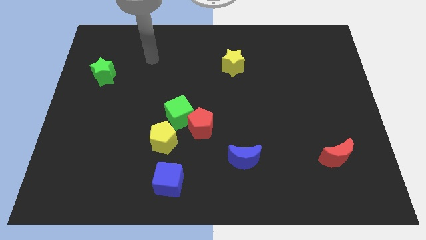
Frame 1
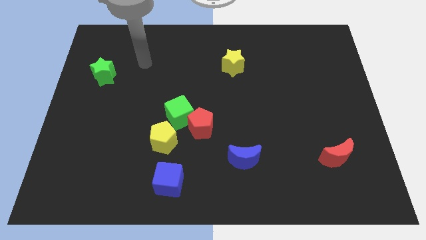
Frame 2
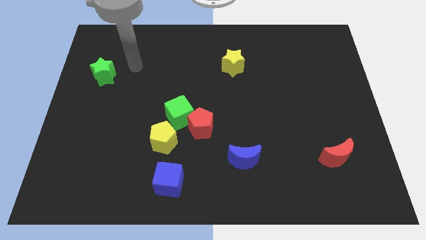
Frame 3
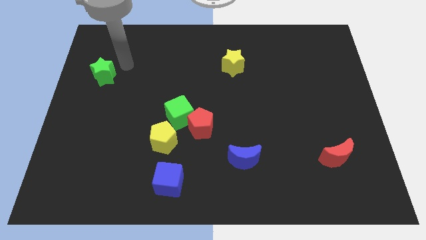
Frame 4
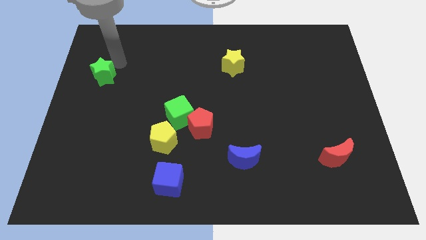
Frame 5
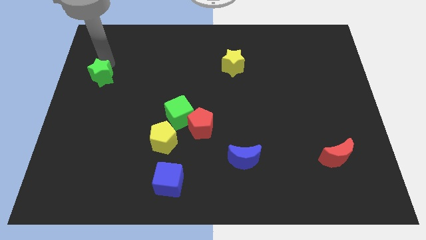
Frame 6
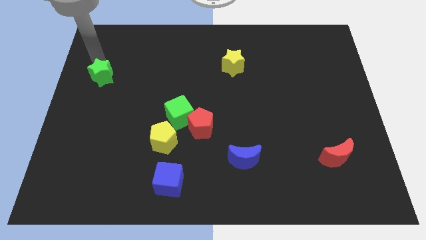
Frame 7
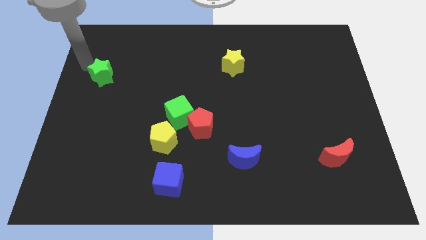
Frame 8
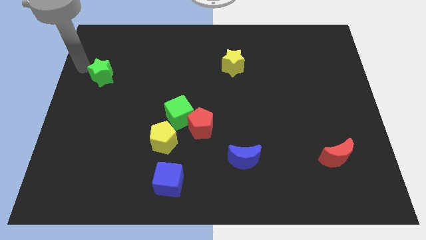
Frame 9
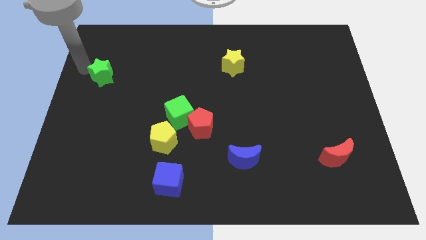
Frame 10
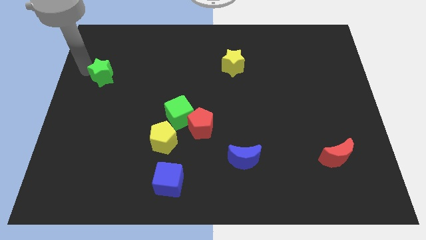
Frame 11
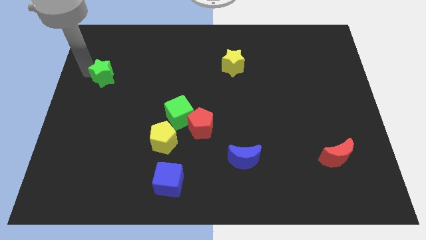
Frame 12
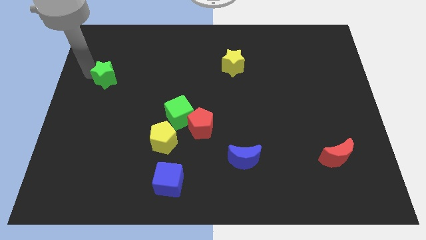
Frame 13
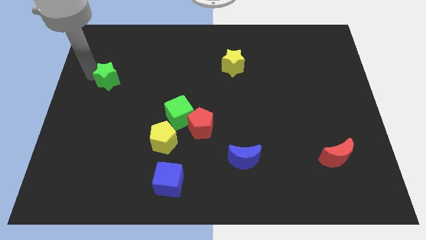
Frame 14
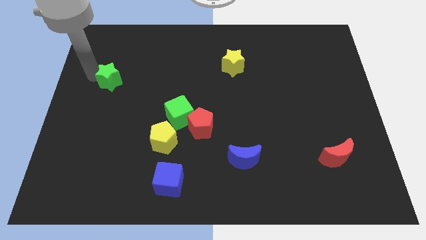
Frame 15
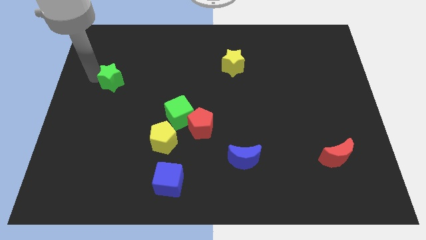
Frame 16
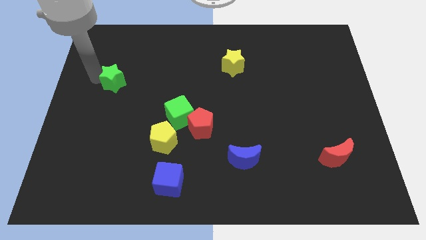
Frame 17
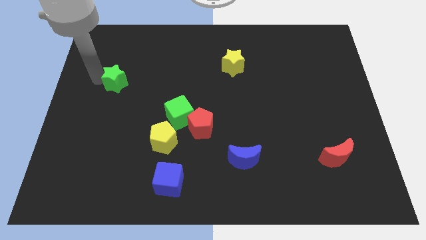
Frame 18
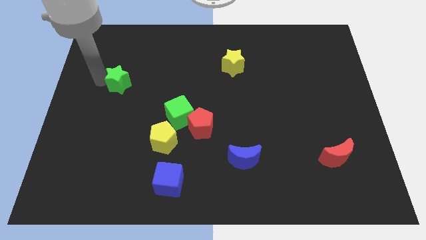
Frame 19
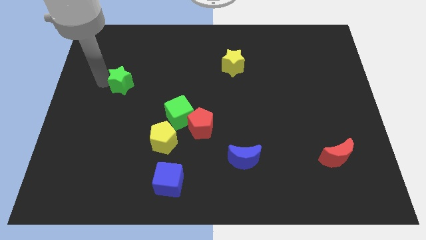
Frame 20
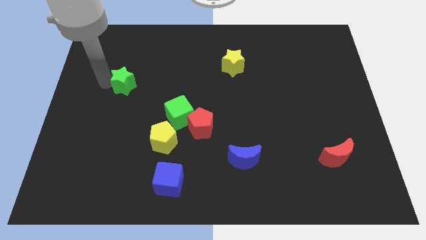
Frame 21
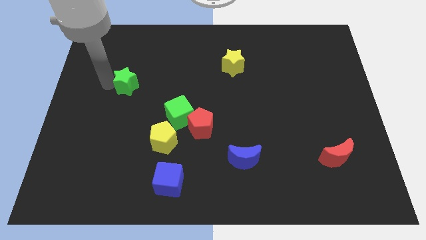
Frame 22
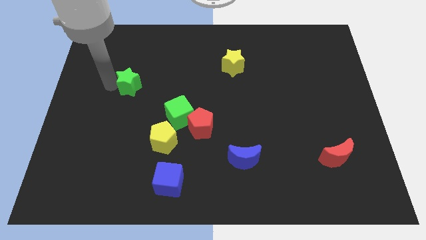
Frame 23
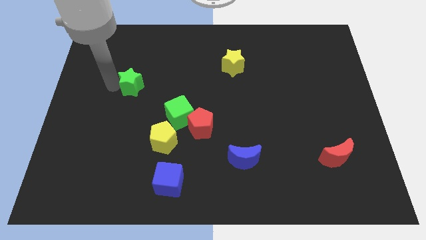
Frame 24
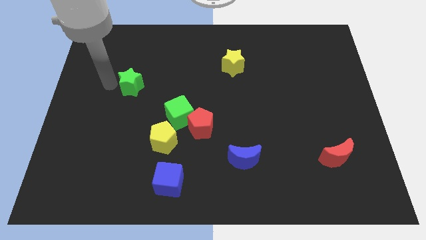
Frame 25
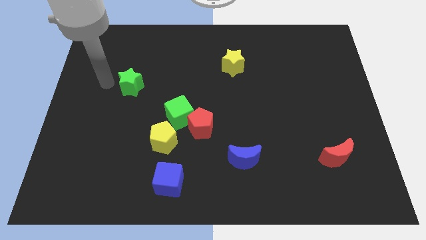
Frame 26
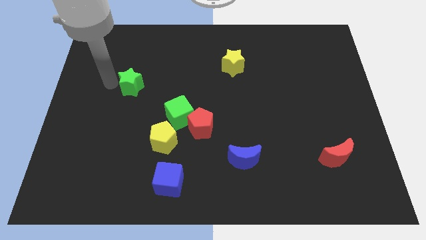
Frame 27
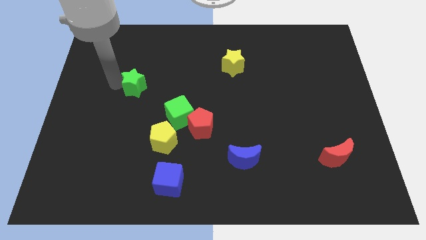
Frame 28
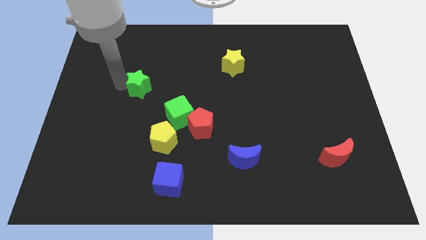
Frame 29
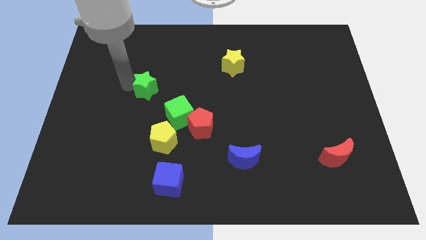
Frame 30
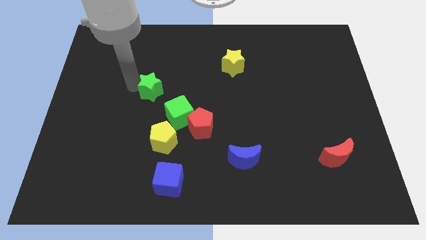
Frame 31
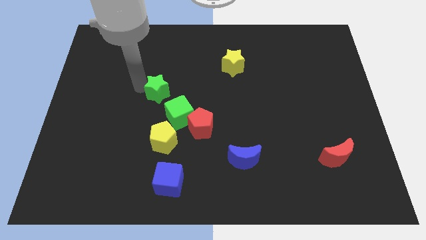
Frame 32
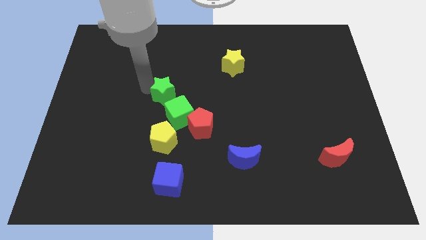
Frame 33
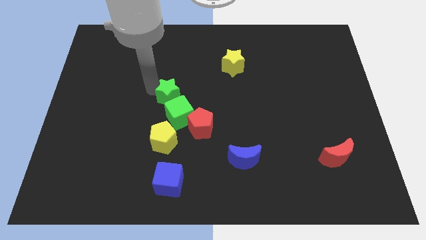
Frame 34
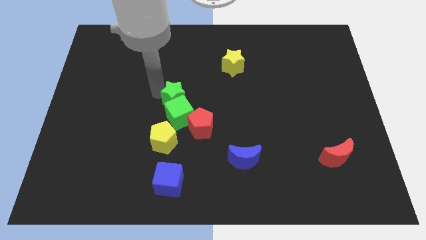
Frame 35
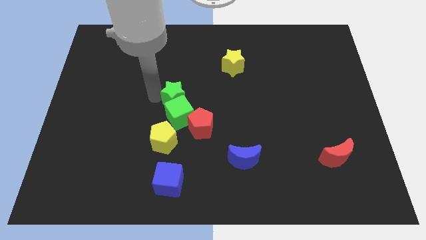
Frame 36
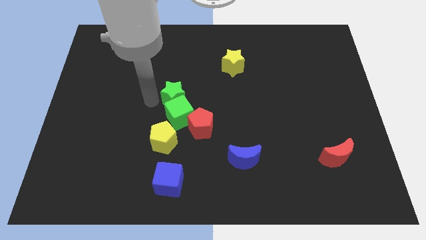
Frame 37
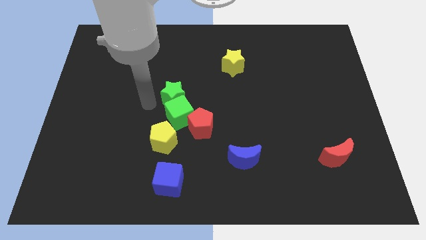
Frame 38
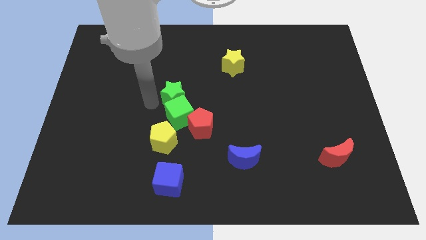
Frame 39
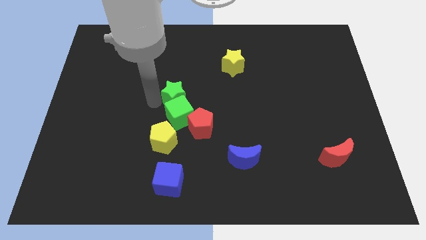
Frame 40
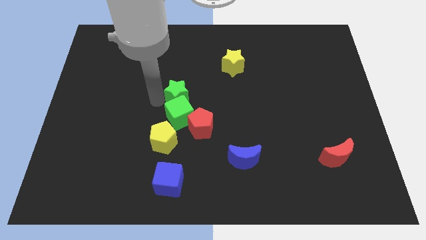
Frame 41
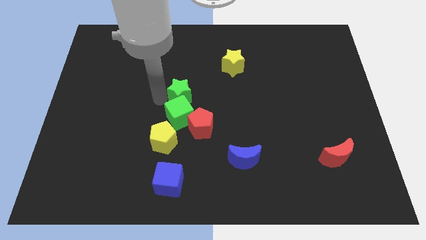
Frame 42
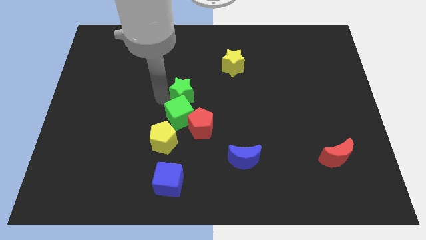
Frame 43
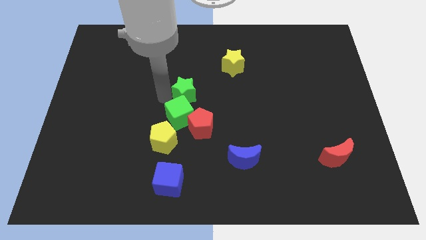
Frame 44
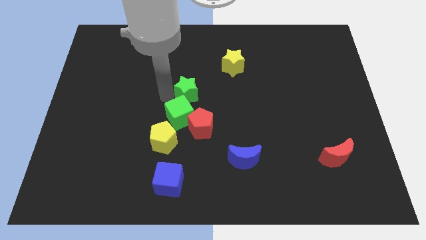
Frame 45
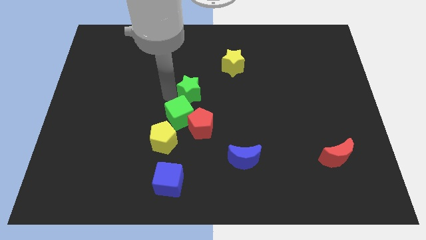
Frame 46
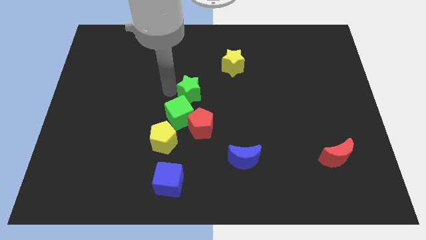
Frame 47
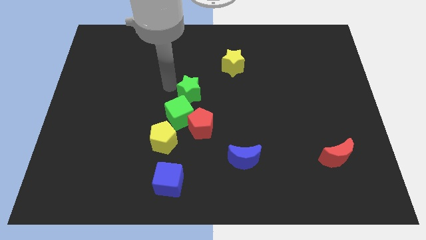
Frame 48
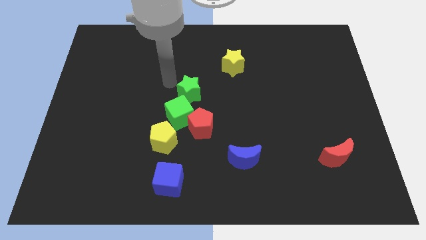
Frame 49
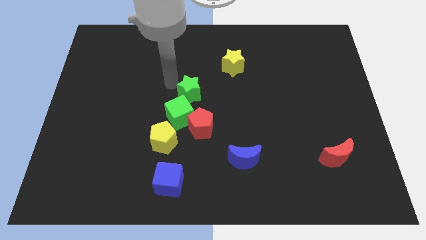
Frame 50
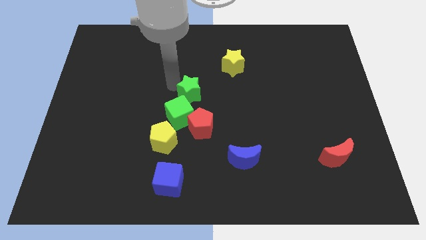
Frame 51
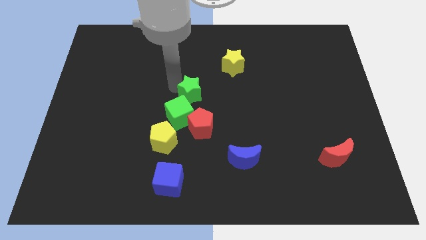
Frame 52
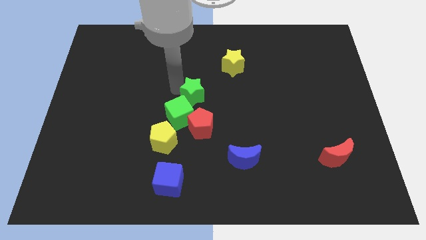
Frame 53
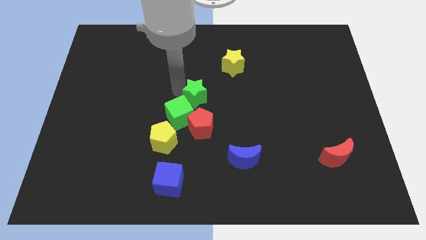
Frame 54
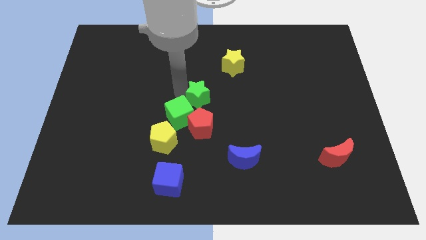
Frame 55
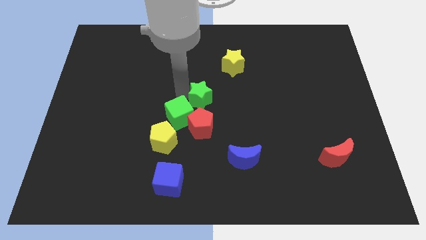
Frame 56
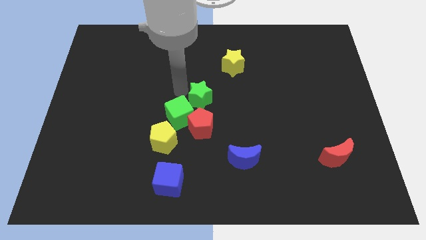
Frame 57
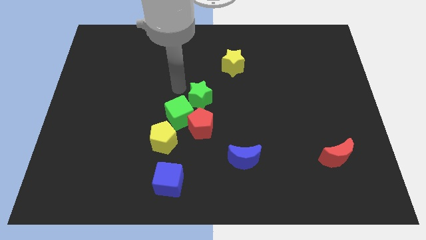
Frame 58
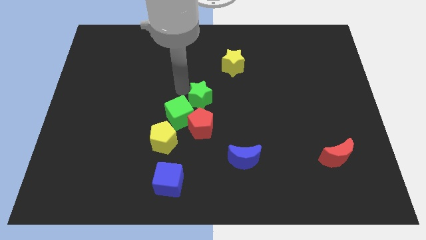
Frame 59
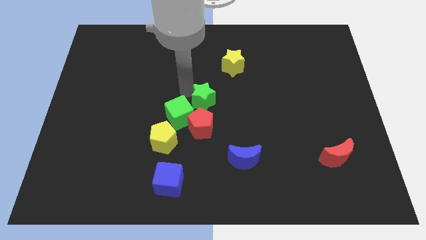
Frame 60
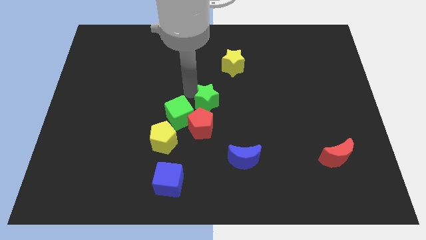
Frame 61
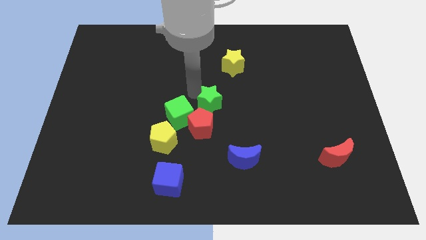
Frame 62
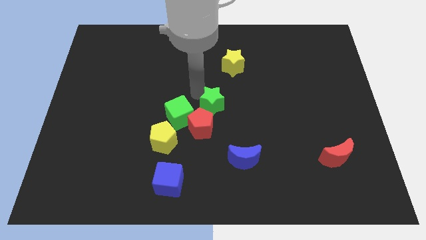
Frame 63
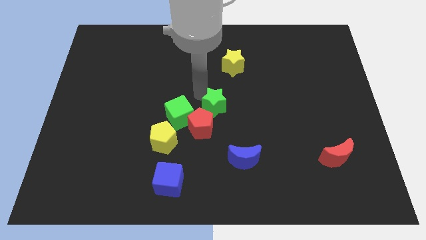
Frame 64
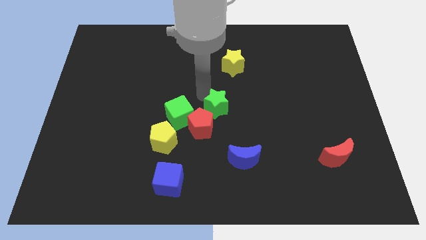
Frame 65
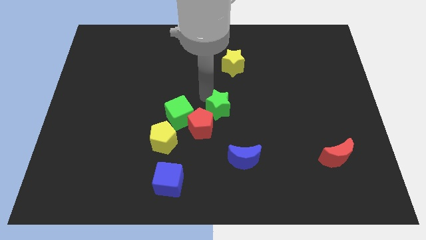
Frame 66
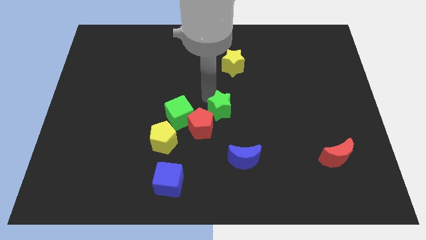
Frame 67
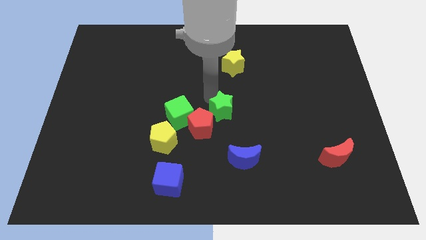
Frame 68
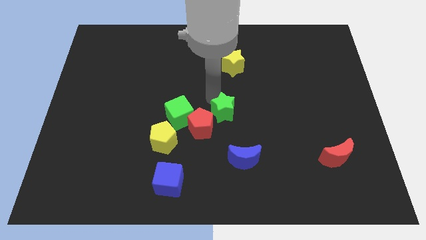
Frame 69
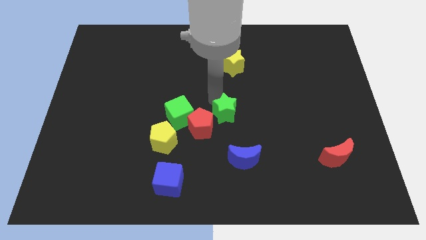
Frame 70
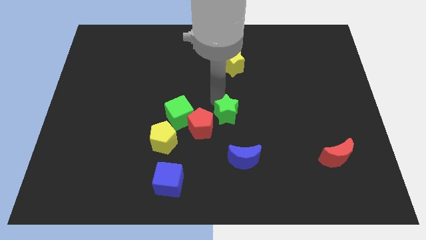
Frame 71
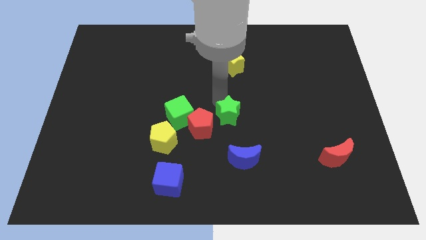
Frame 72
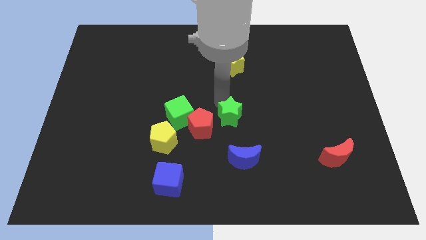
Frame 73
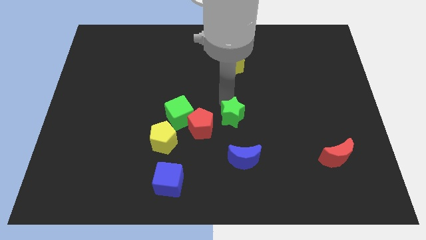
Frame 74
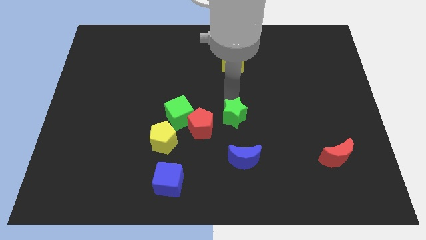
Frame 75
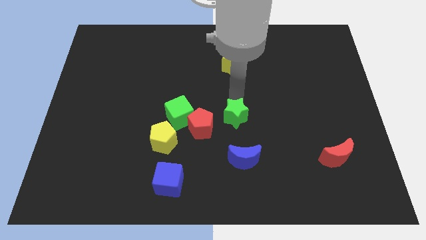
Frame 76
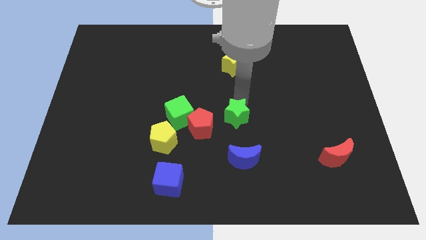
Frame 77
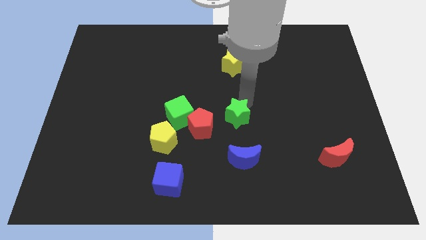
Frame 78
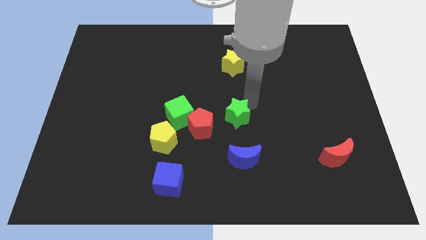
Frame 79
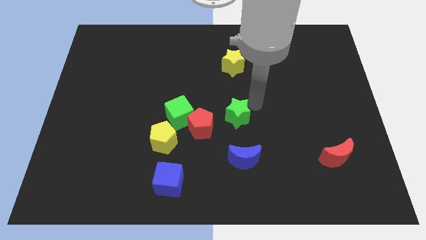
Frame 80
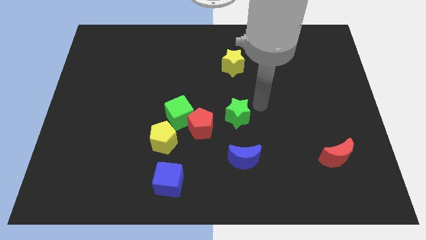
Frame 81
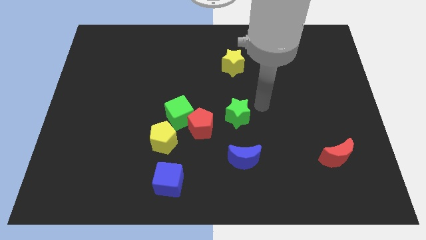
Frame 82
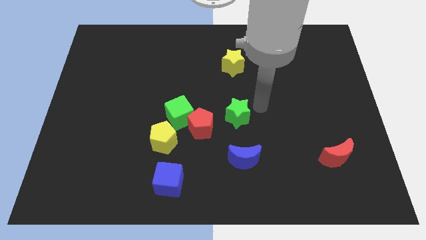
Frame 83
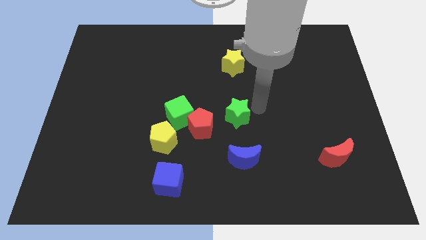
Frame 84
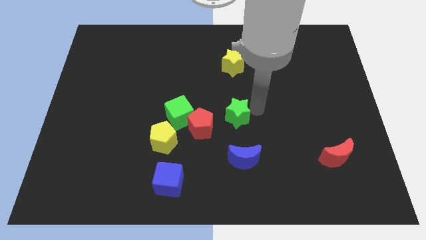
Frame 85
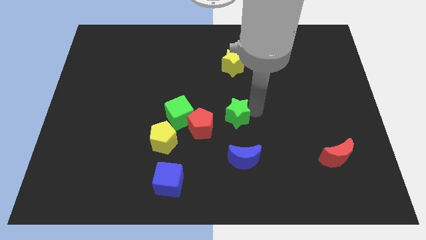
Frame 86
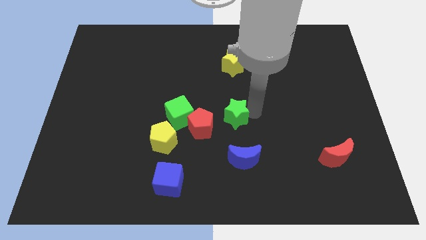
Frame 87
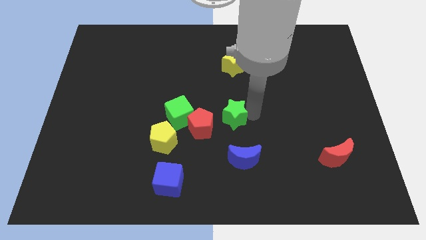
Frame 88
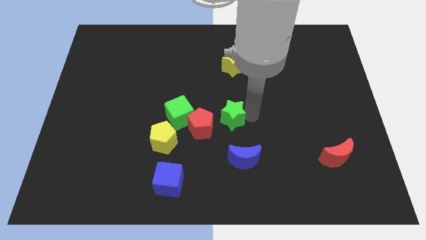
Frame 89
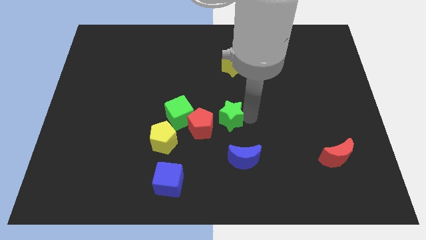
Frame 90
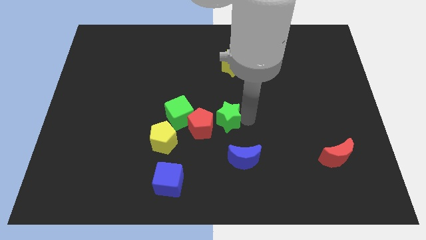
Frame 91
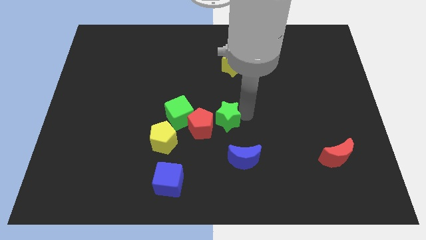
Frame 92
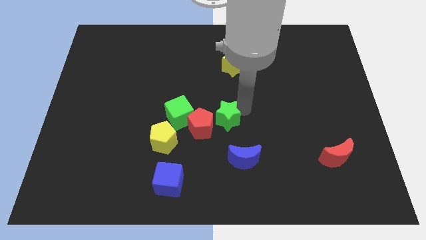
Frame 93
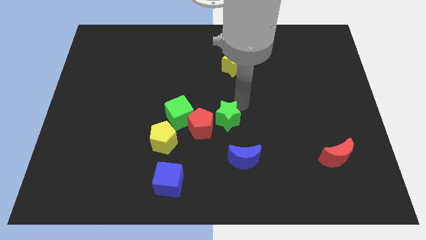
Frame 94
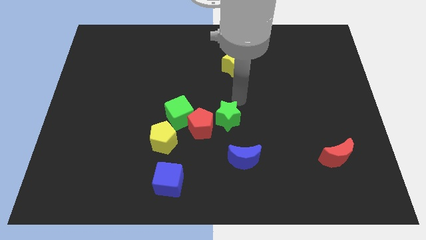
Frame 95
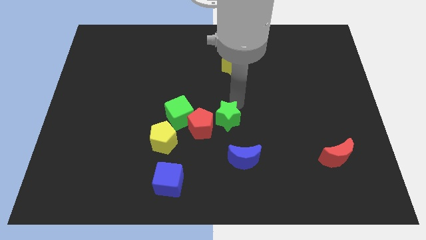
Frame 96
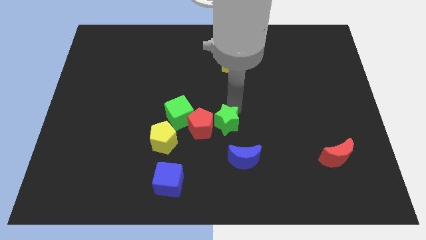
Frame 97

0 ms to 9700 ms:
slide the green star to the top left of the blue moon
